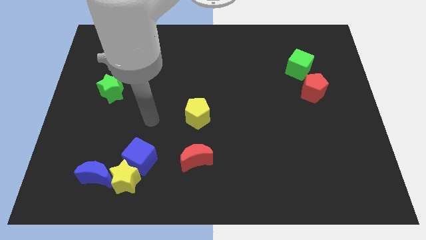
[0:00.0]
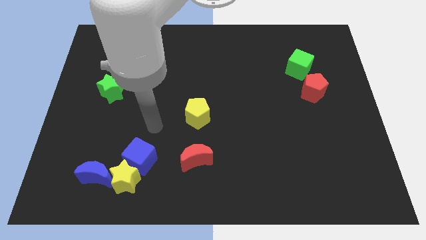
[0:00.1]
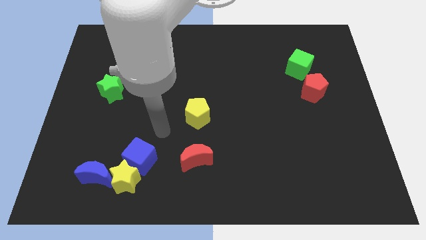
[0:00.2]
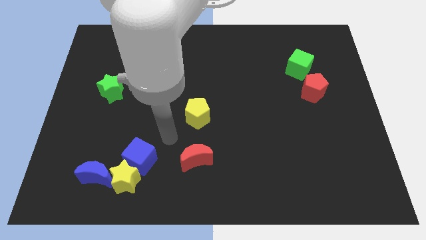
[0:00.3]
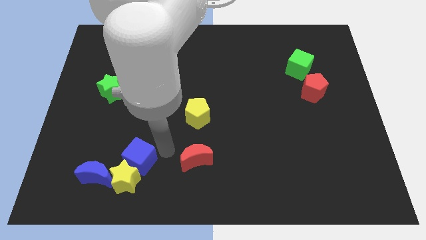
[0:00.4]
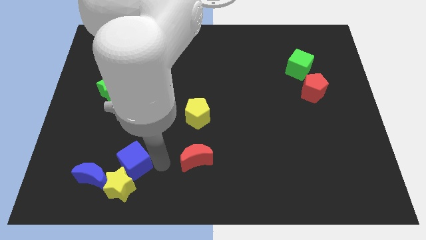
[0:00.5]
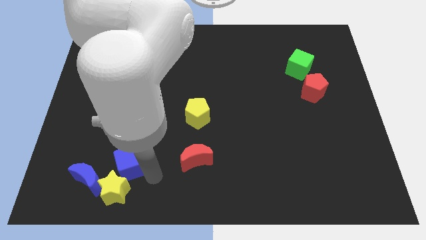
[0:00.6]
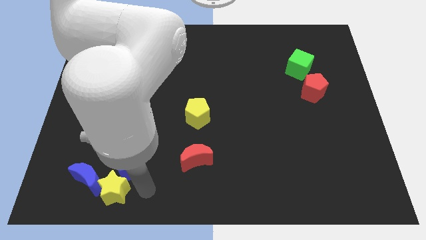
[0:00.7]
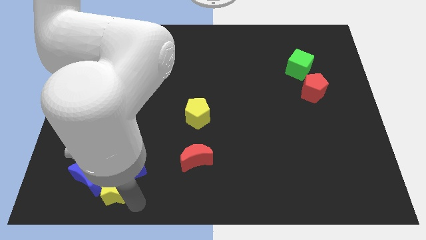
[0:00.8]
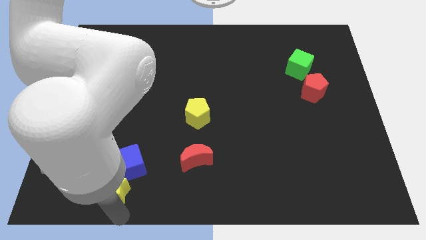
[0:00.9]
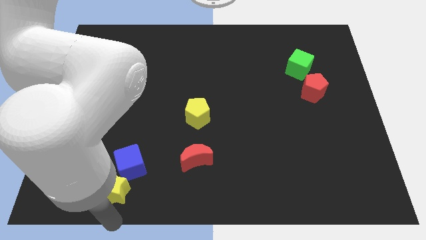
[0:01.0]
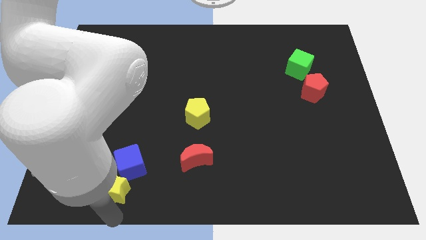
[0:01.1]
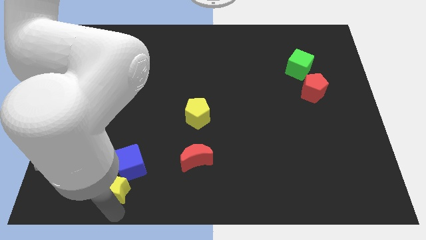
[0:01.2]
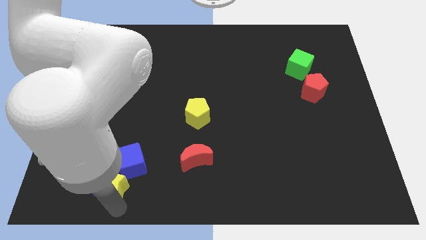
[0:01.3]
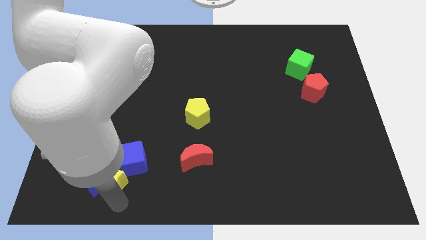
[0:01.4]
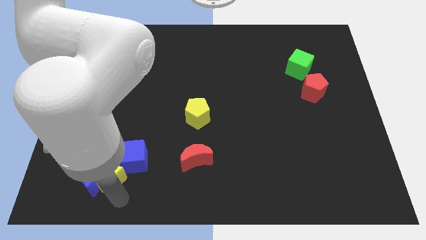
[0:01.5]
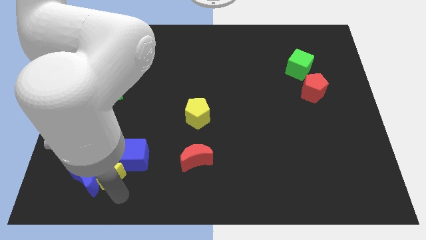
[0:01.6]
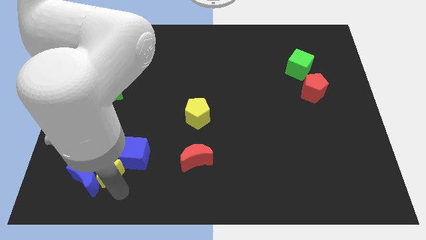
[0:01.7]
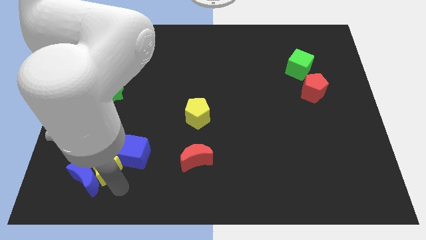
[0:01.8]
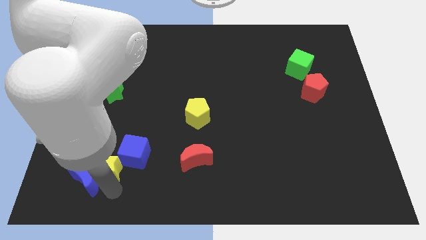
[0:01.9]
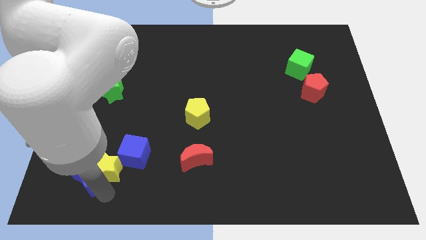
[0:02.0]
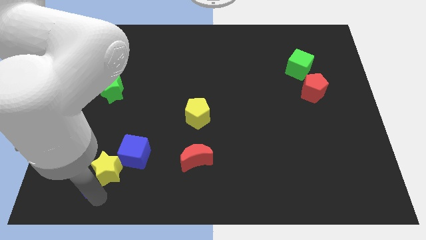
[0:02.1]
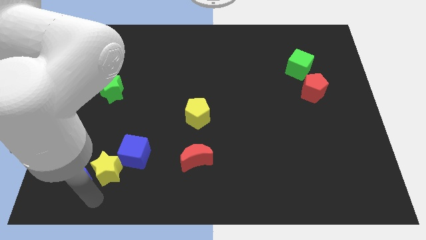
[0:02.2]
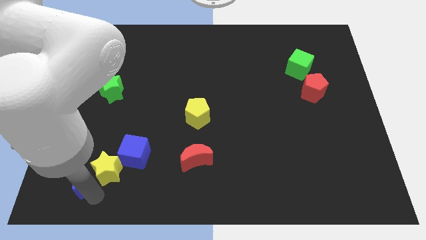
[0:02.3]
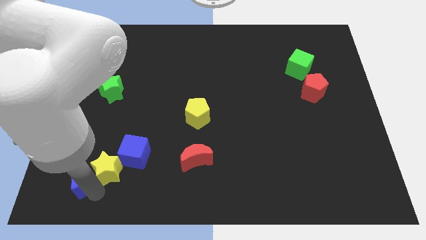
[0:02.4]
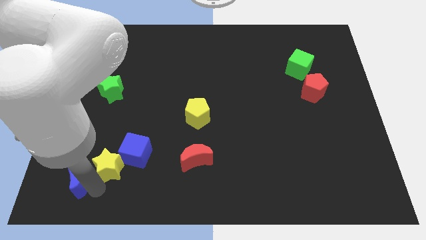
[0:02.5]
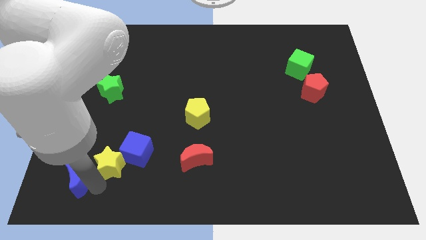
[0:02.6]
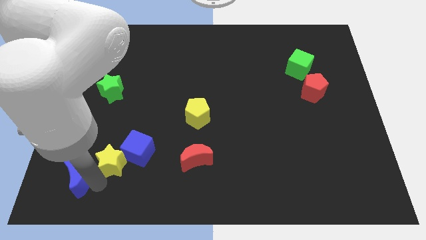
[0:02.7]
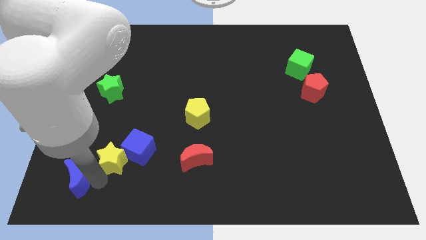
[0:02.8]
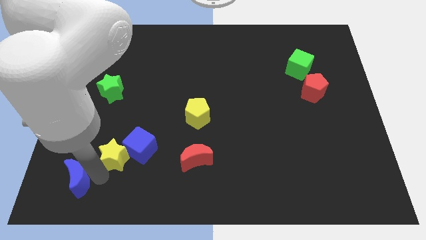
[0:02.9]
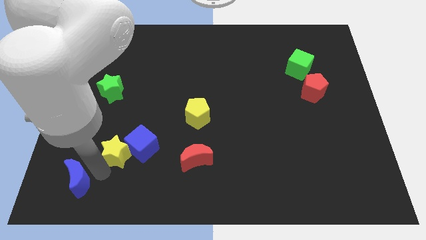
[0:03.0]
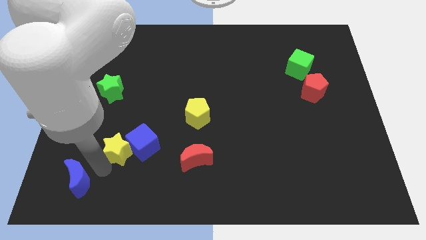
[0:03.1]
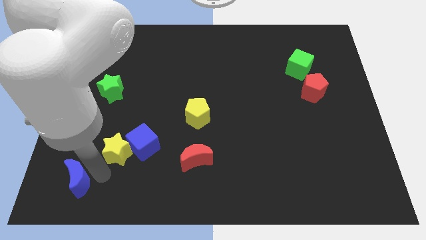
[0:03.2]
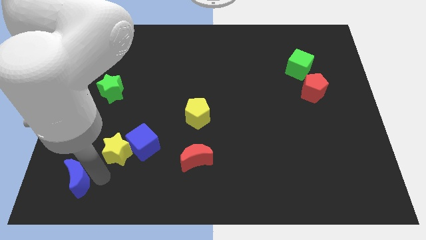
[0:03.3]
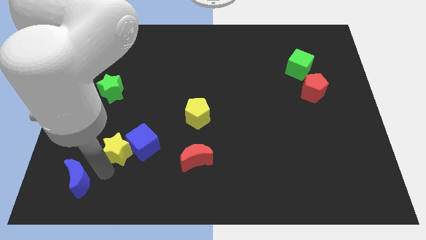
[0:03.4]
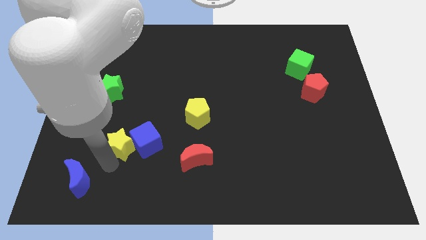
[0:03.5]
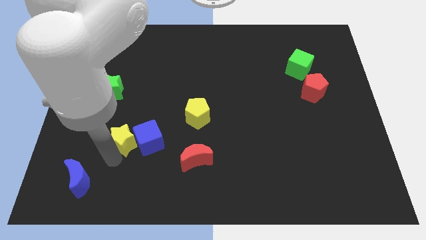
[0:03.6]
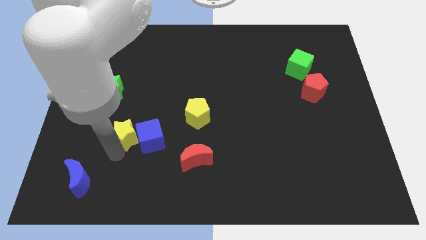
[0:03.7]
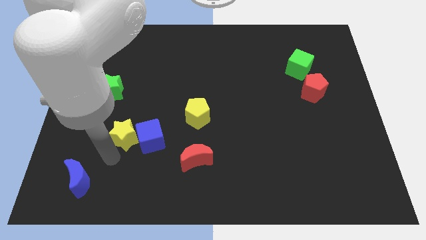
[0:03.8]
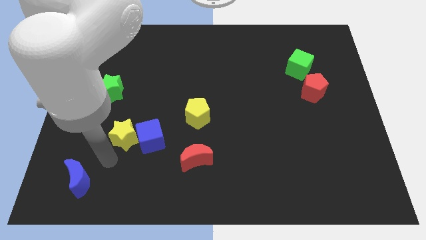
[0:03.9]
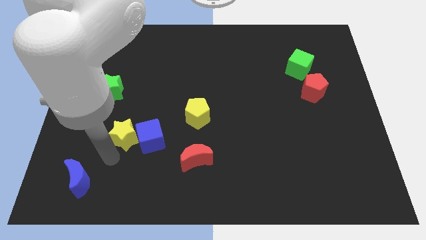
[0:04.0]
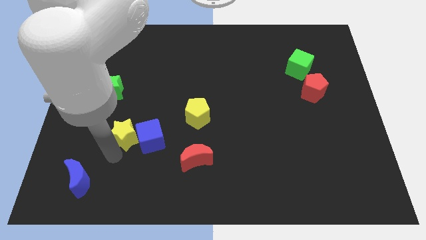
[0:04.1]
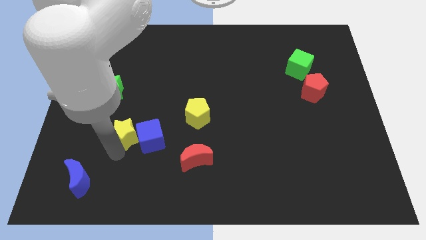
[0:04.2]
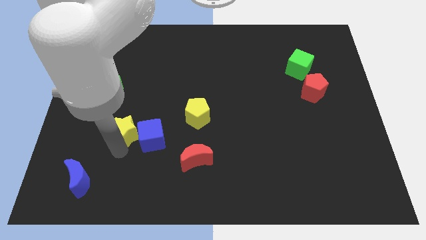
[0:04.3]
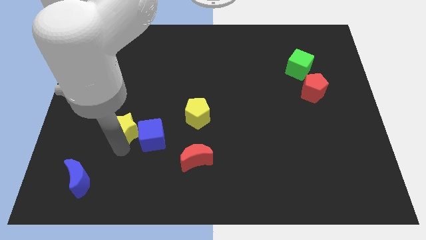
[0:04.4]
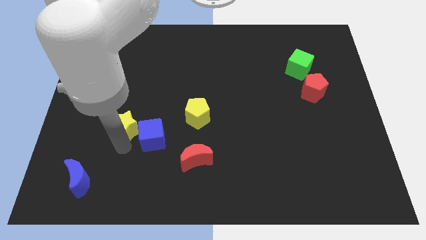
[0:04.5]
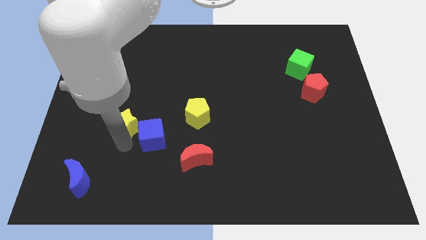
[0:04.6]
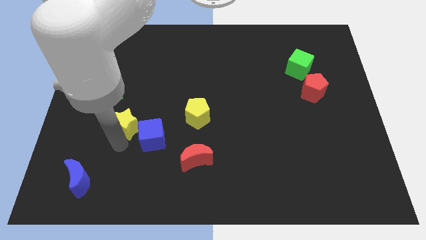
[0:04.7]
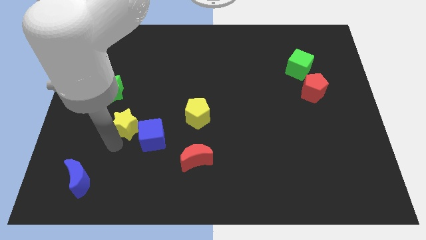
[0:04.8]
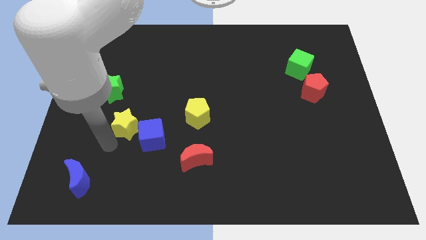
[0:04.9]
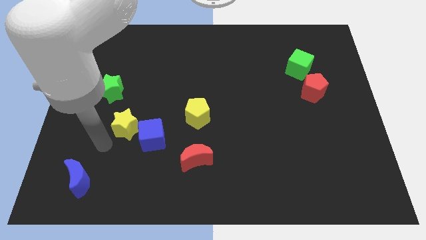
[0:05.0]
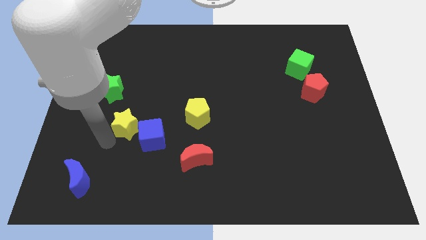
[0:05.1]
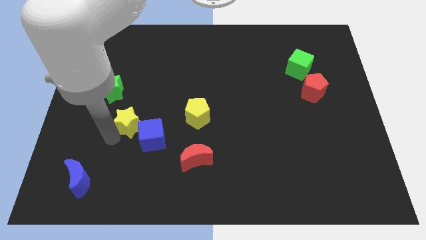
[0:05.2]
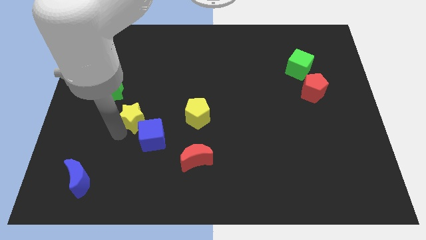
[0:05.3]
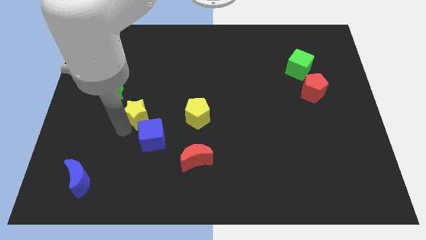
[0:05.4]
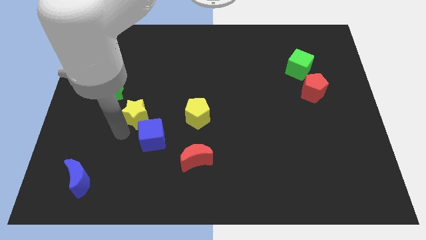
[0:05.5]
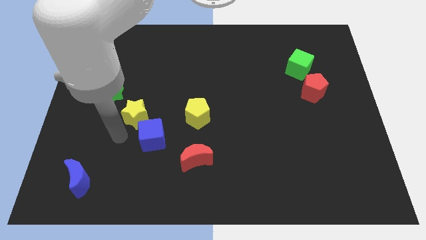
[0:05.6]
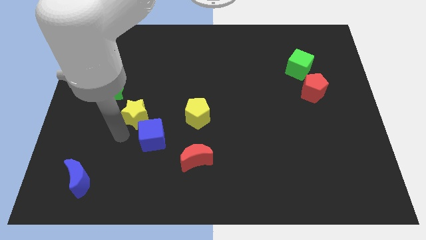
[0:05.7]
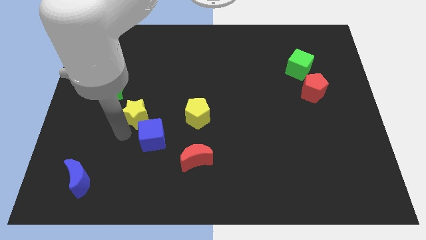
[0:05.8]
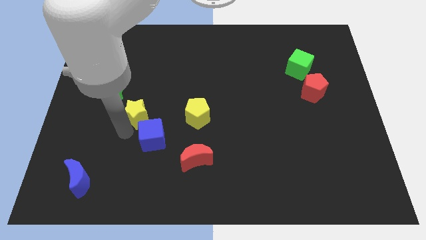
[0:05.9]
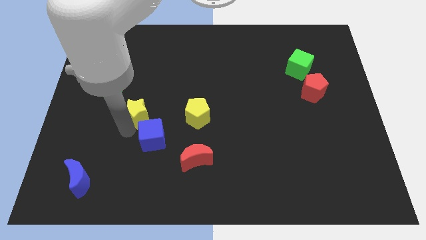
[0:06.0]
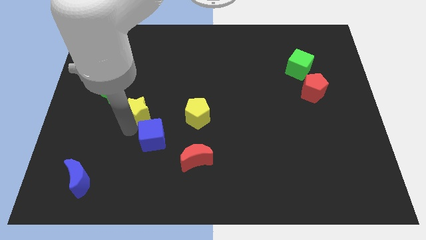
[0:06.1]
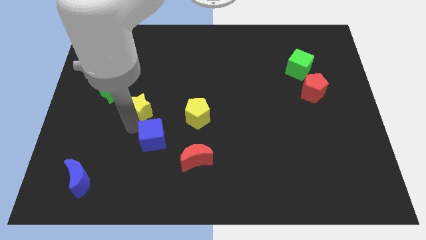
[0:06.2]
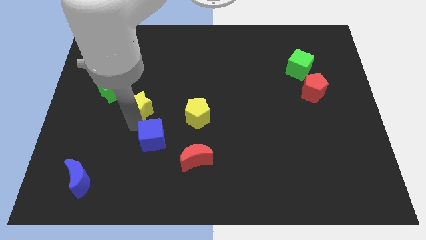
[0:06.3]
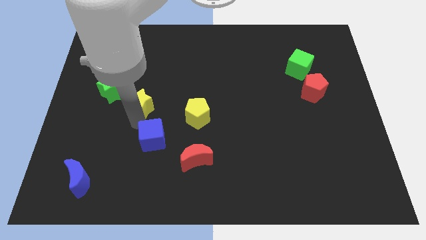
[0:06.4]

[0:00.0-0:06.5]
push the yellow star to the right side of the green star

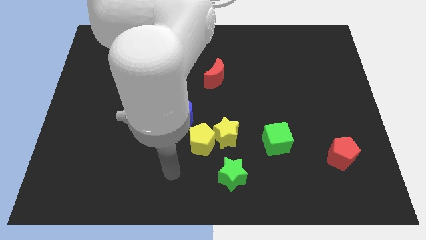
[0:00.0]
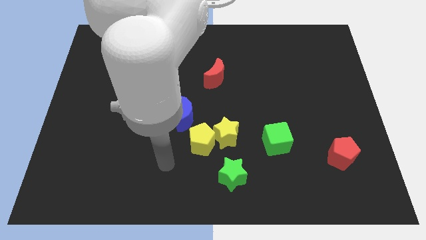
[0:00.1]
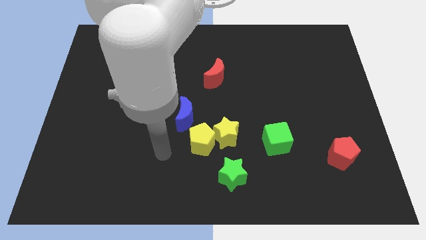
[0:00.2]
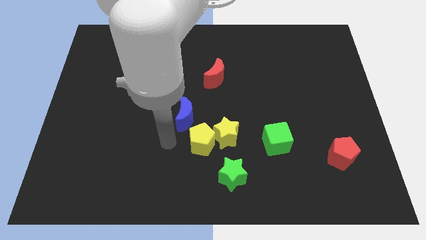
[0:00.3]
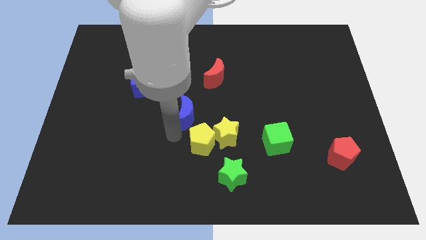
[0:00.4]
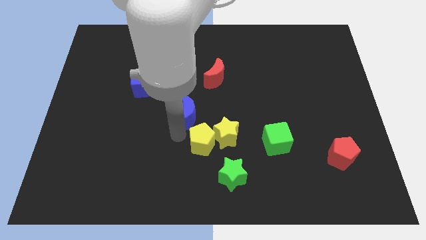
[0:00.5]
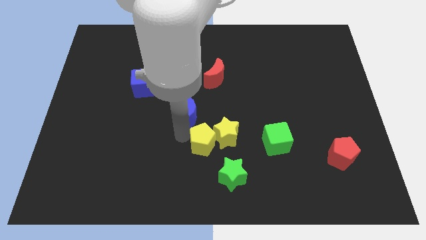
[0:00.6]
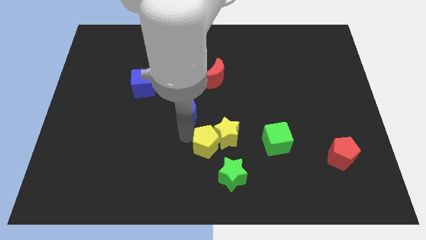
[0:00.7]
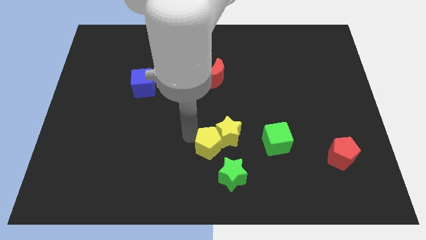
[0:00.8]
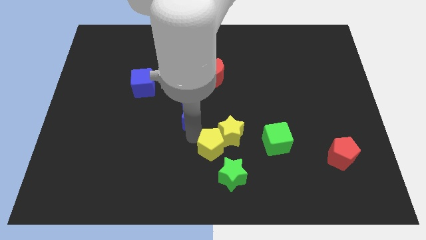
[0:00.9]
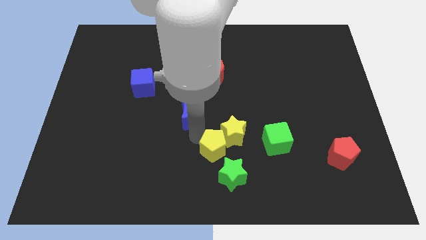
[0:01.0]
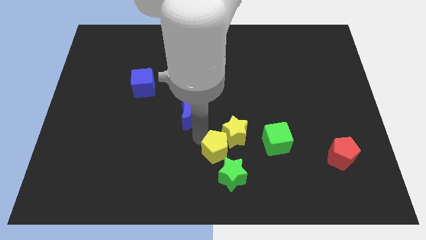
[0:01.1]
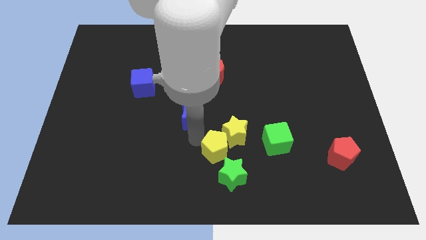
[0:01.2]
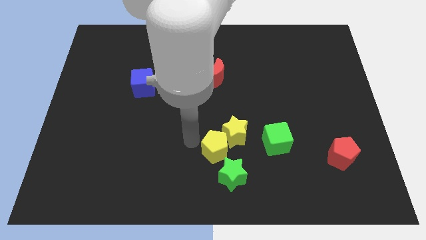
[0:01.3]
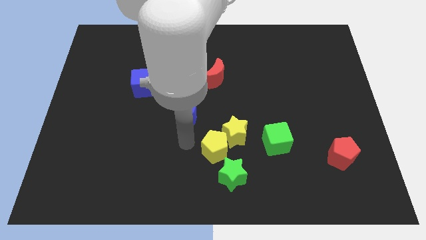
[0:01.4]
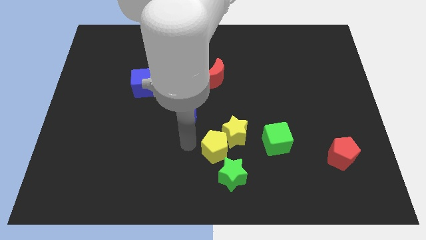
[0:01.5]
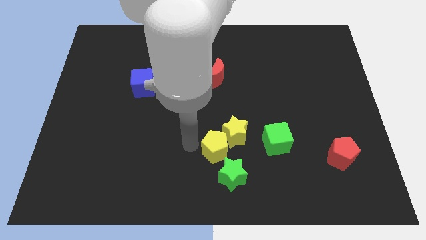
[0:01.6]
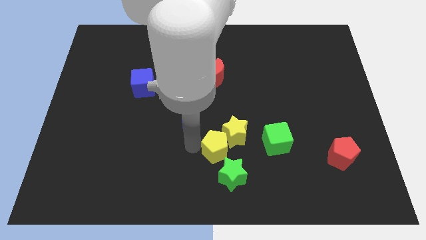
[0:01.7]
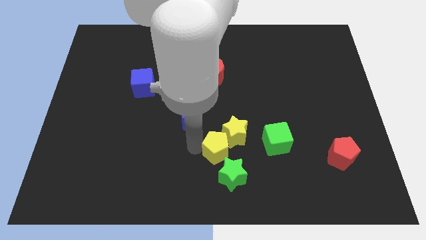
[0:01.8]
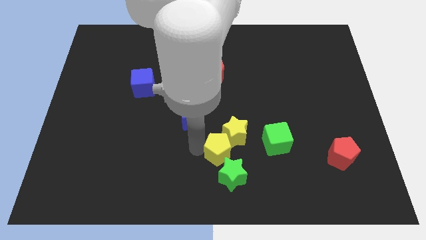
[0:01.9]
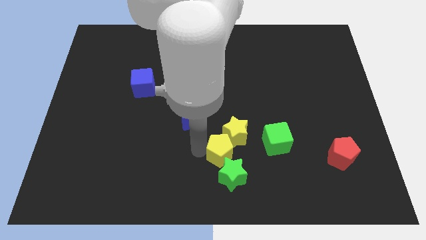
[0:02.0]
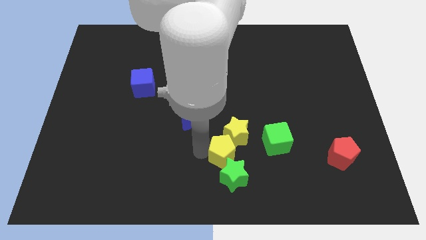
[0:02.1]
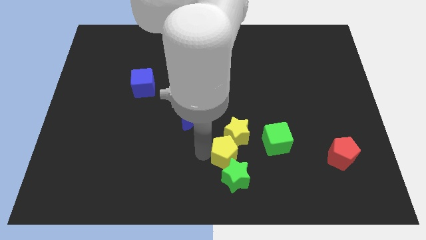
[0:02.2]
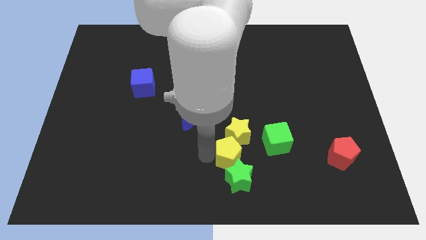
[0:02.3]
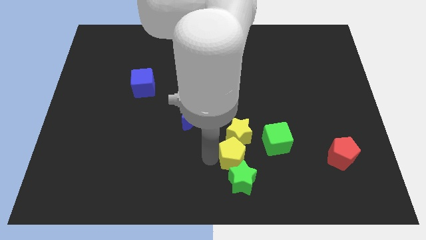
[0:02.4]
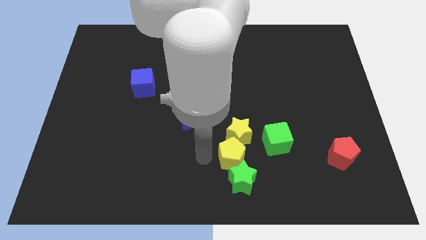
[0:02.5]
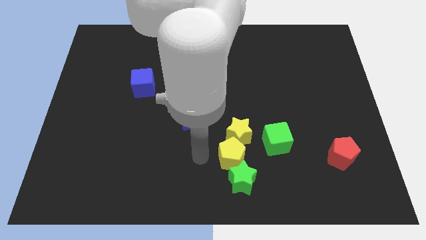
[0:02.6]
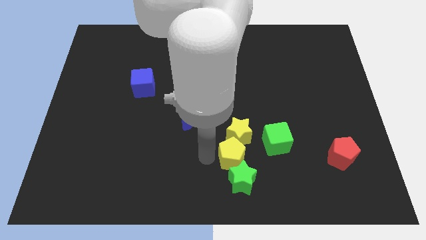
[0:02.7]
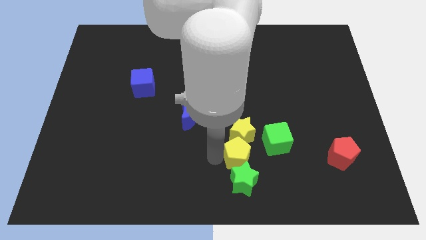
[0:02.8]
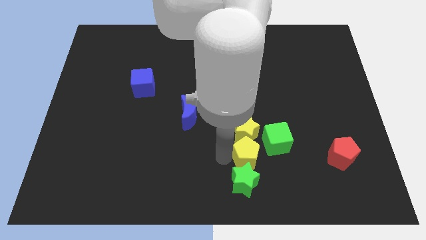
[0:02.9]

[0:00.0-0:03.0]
put the yellow pentagon to the top right of the green star
